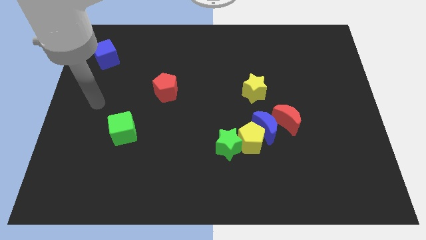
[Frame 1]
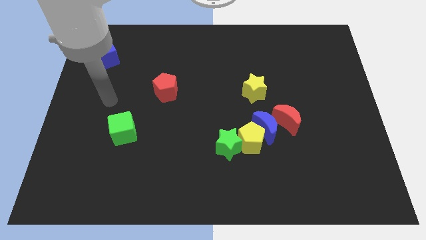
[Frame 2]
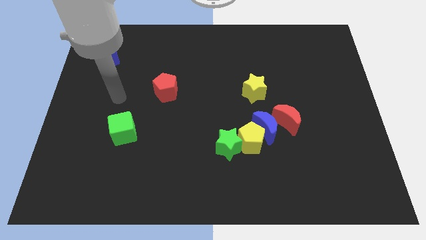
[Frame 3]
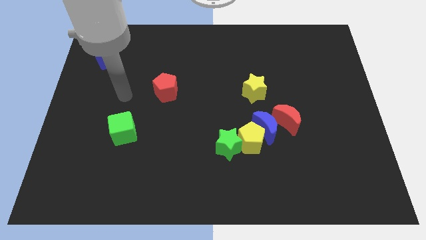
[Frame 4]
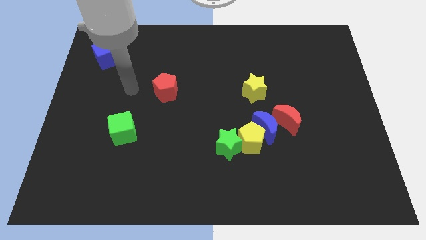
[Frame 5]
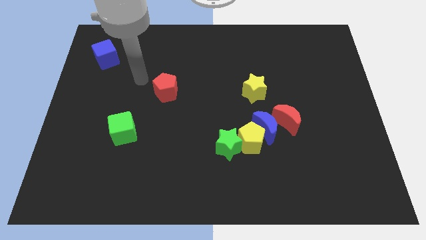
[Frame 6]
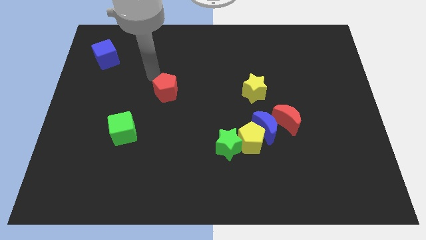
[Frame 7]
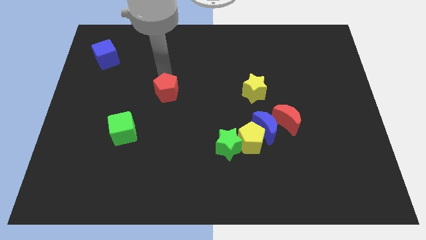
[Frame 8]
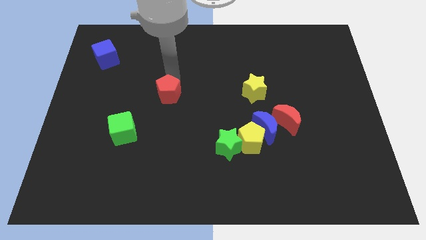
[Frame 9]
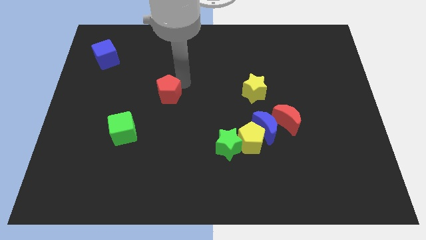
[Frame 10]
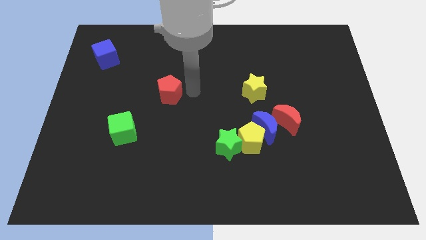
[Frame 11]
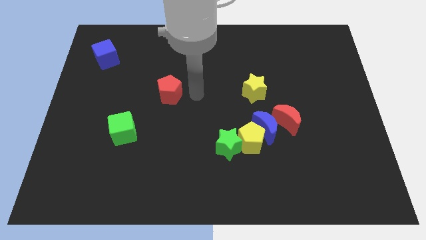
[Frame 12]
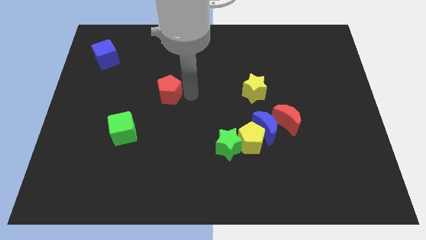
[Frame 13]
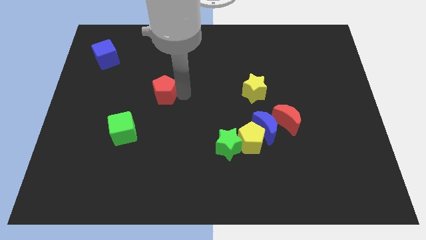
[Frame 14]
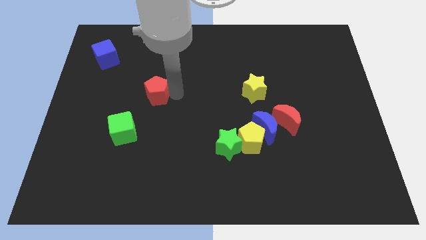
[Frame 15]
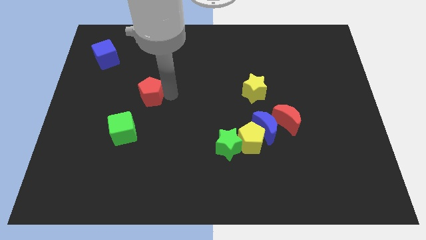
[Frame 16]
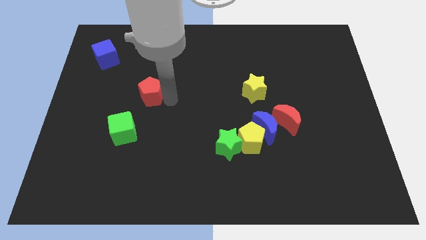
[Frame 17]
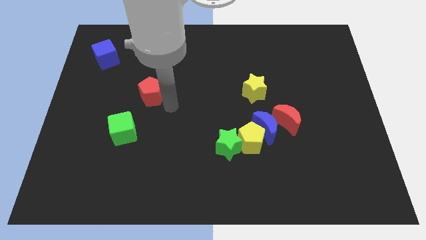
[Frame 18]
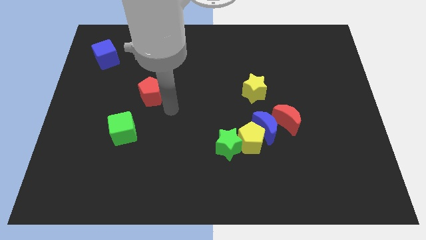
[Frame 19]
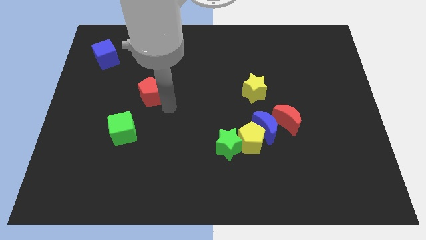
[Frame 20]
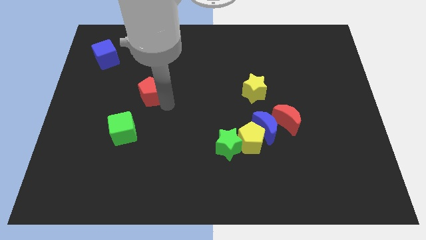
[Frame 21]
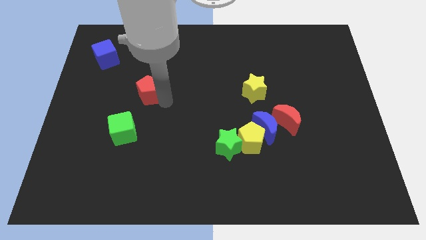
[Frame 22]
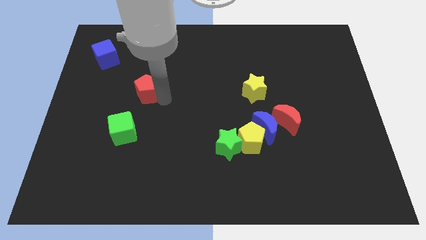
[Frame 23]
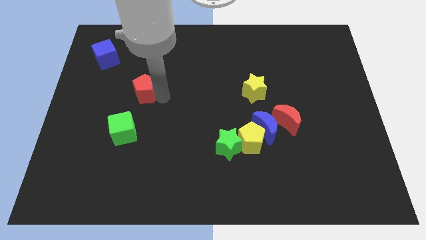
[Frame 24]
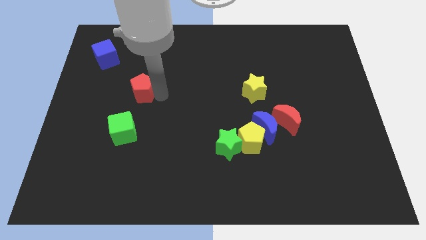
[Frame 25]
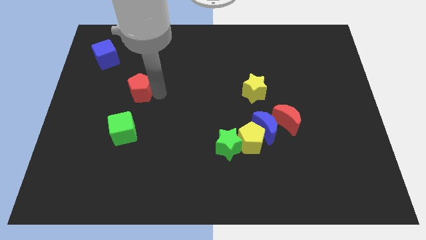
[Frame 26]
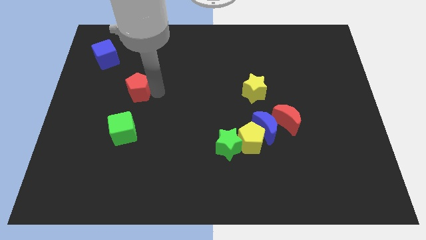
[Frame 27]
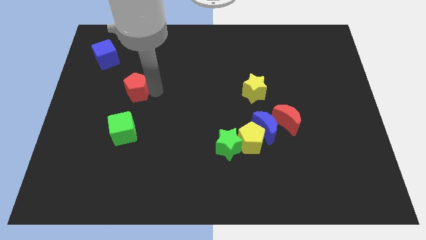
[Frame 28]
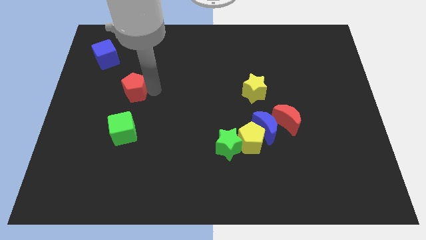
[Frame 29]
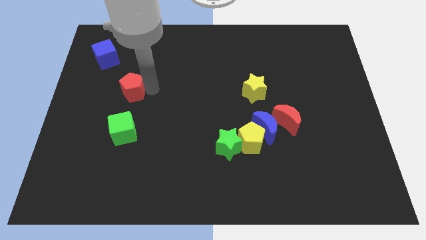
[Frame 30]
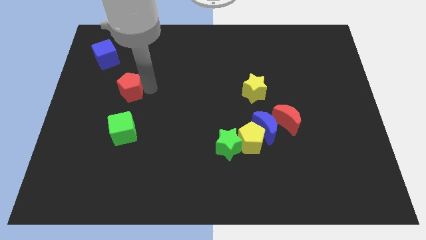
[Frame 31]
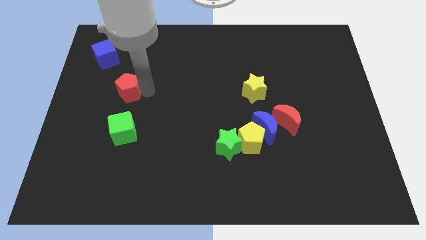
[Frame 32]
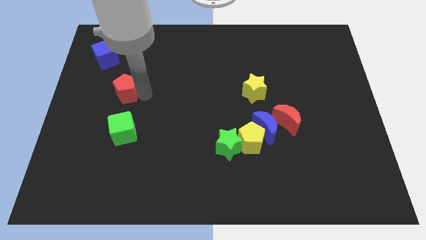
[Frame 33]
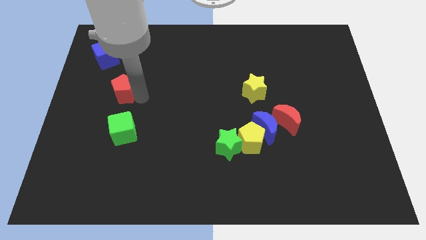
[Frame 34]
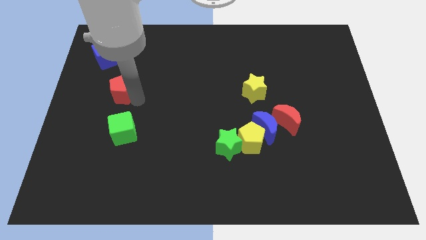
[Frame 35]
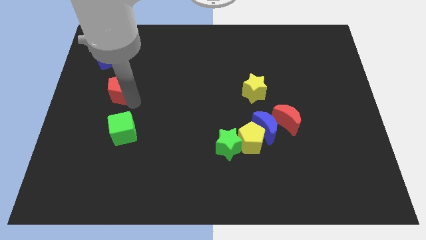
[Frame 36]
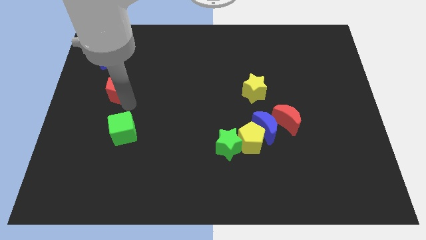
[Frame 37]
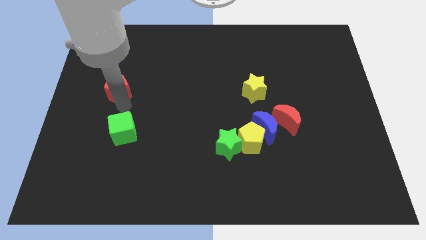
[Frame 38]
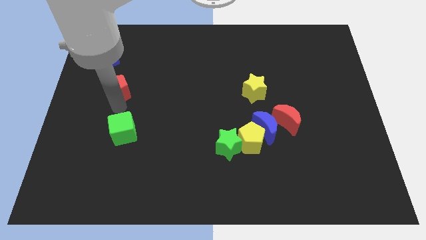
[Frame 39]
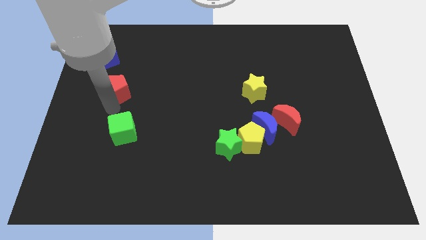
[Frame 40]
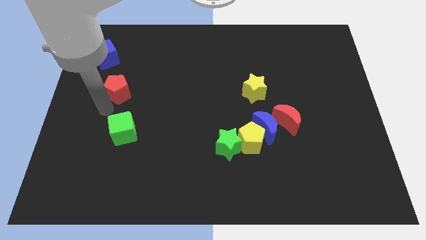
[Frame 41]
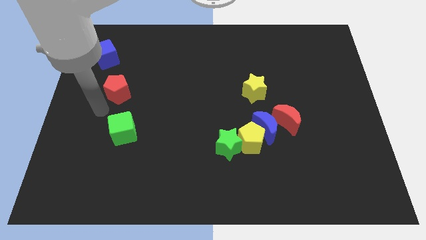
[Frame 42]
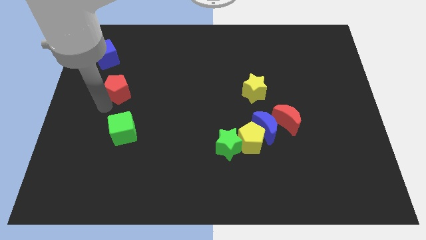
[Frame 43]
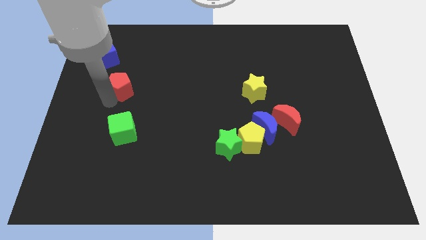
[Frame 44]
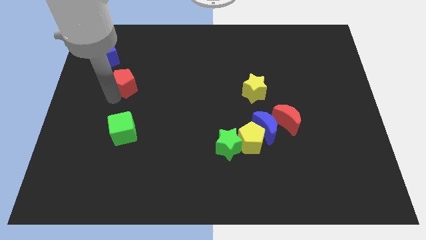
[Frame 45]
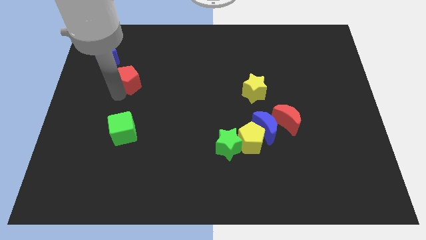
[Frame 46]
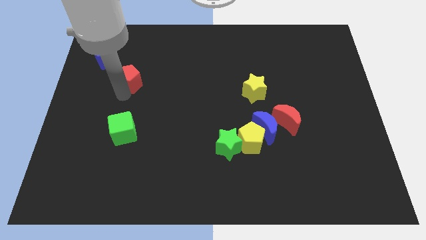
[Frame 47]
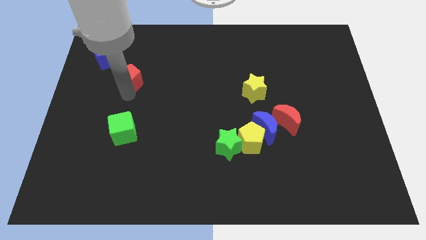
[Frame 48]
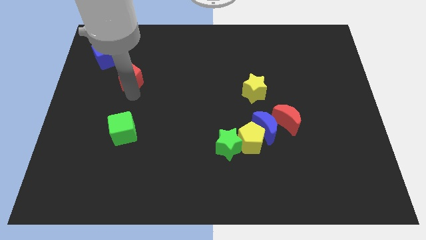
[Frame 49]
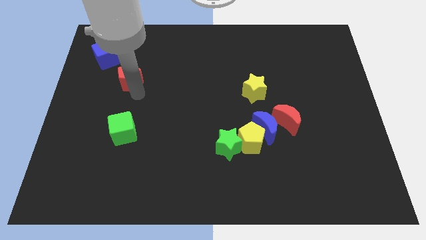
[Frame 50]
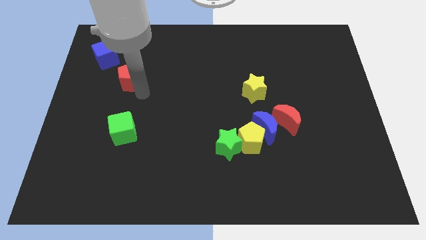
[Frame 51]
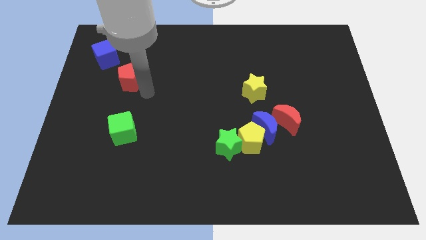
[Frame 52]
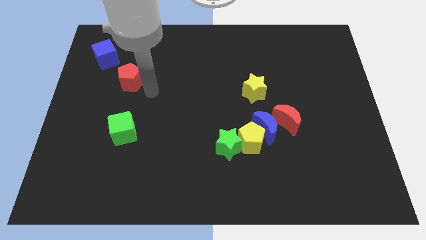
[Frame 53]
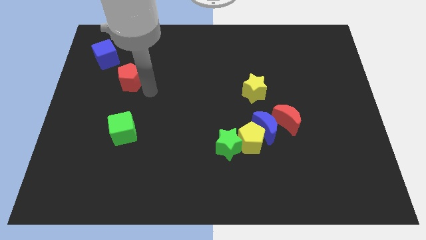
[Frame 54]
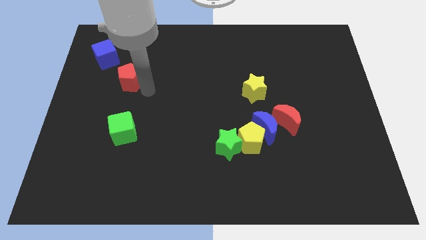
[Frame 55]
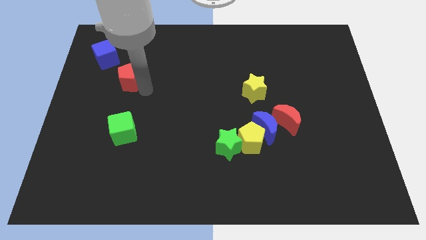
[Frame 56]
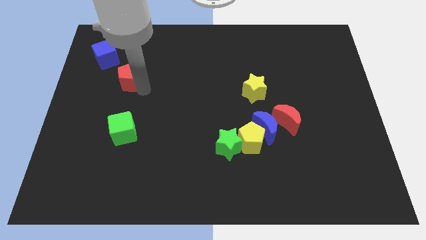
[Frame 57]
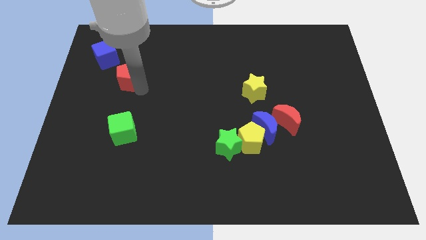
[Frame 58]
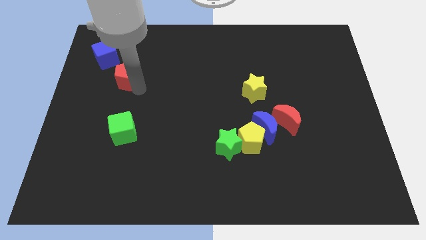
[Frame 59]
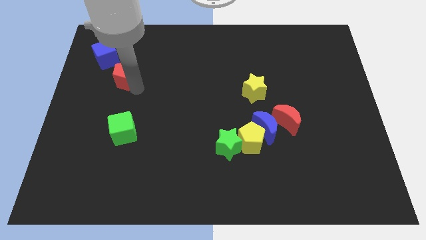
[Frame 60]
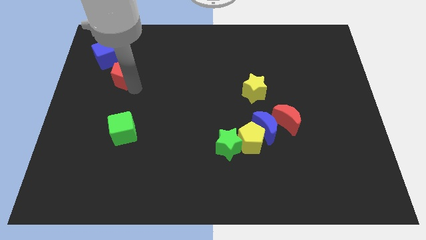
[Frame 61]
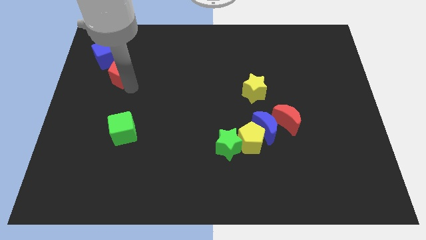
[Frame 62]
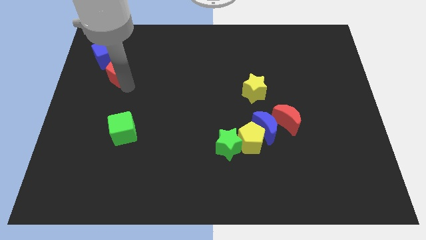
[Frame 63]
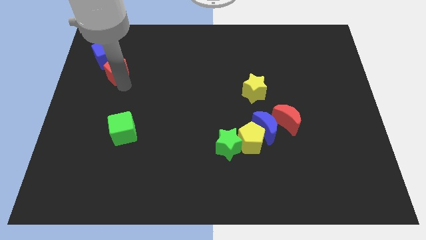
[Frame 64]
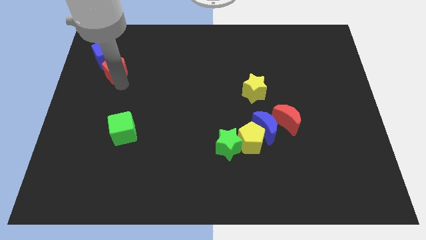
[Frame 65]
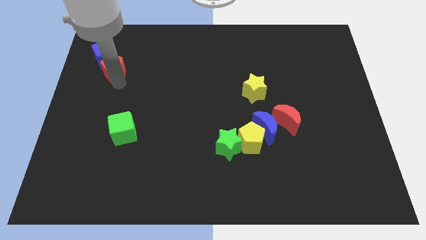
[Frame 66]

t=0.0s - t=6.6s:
move the red pentagon towards the blue cube
